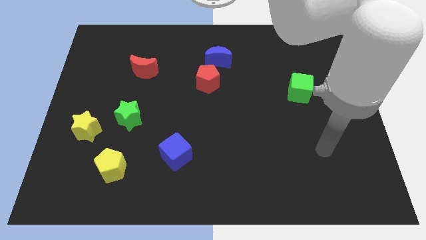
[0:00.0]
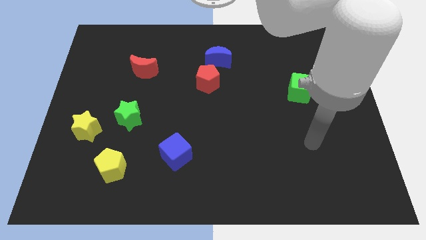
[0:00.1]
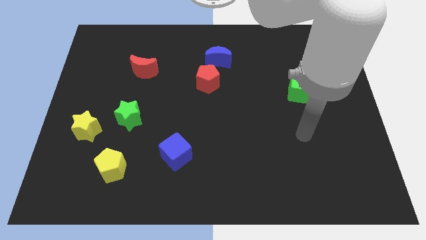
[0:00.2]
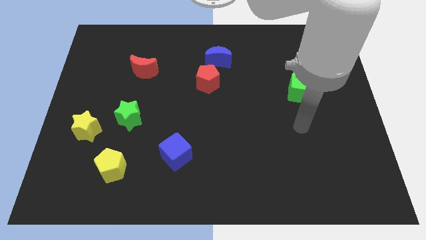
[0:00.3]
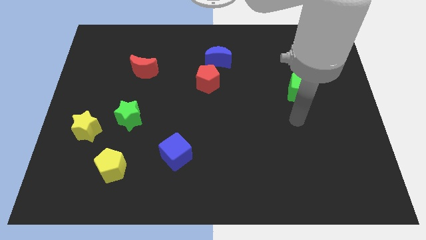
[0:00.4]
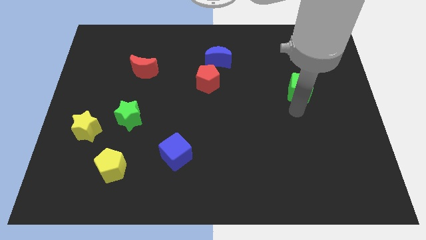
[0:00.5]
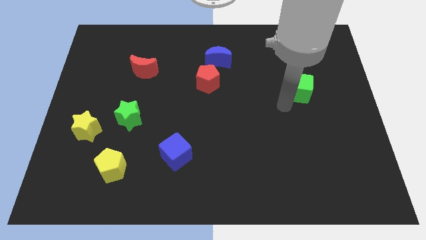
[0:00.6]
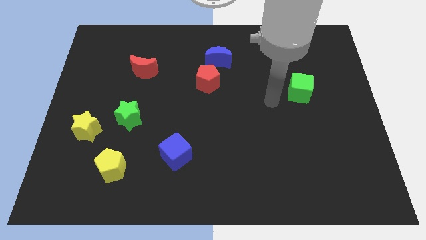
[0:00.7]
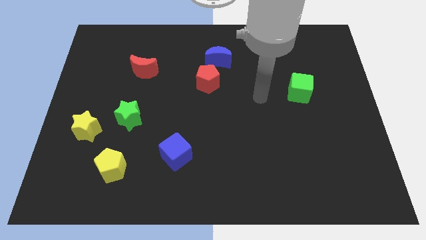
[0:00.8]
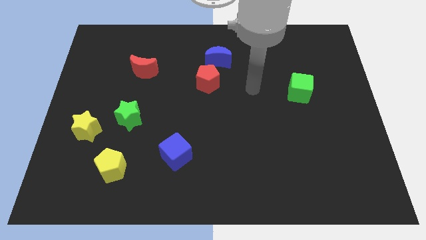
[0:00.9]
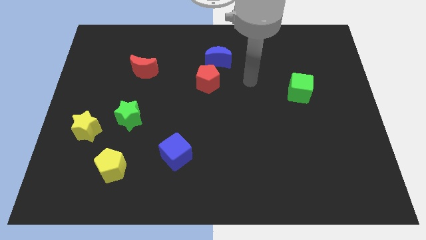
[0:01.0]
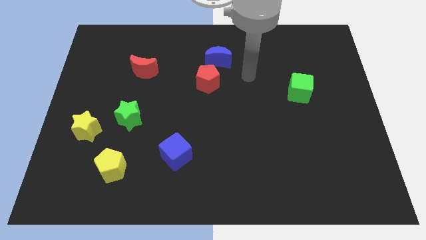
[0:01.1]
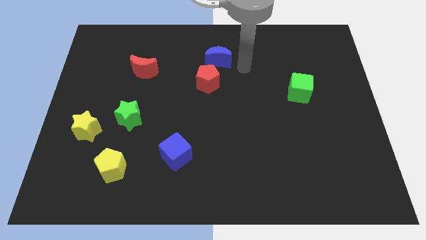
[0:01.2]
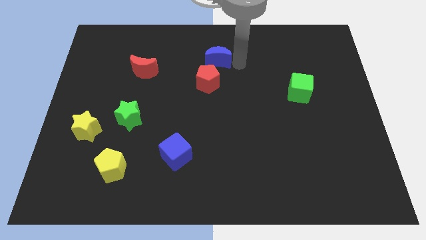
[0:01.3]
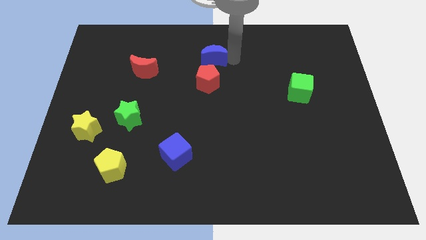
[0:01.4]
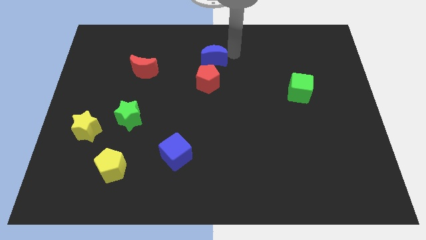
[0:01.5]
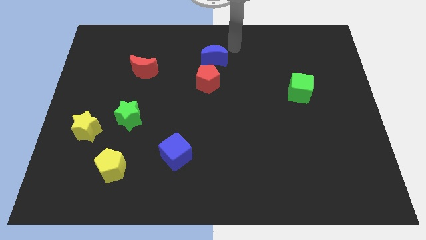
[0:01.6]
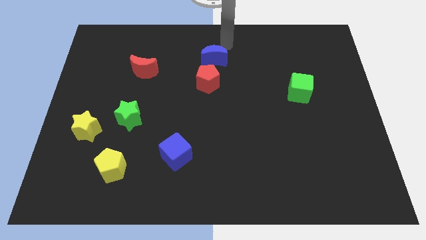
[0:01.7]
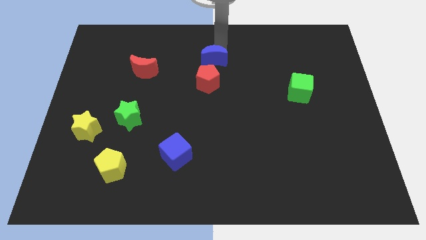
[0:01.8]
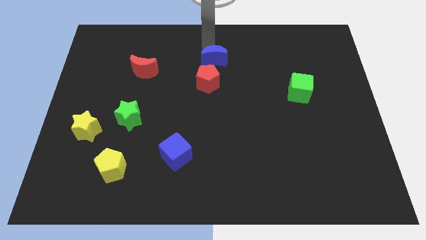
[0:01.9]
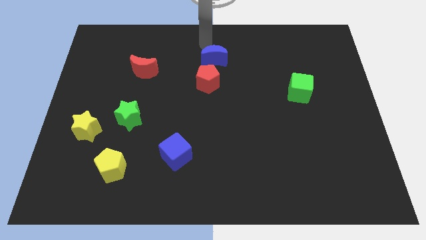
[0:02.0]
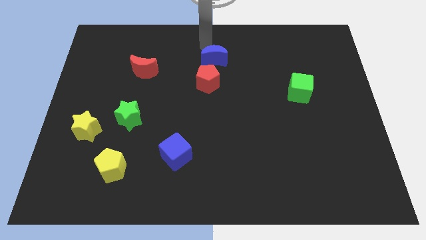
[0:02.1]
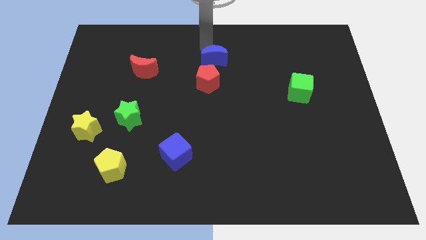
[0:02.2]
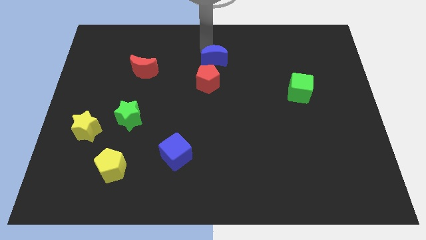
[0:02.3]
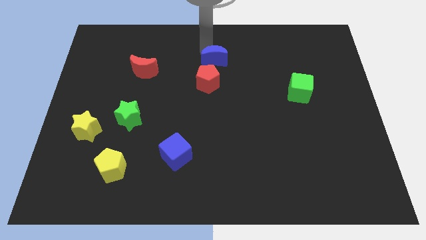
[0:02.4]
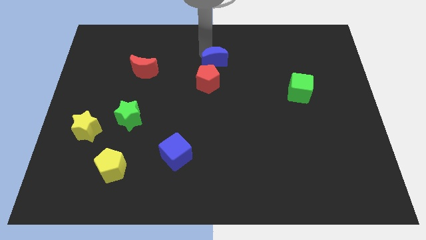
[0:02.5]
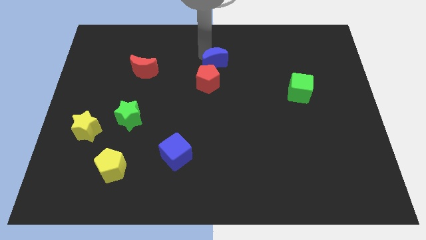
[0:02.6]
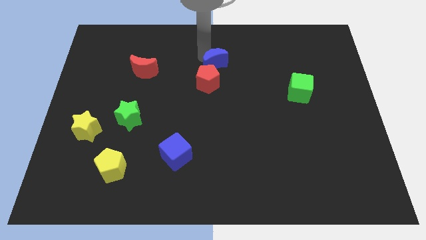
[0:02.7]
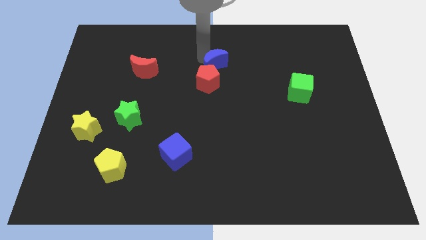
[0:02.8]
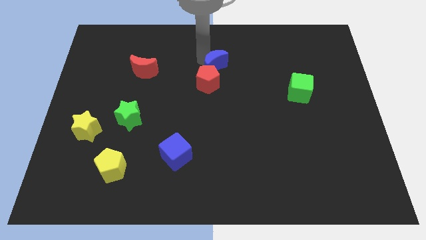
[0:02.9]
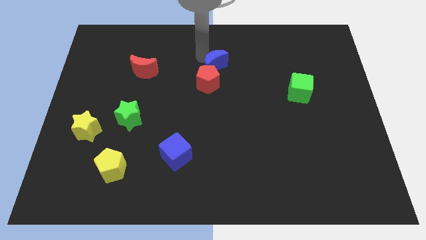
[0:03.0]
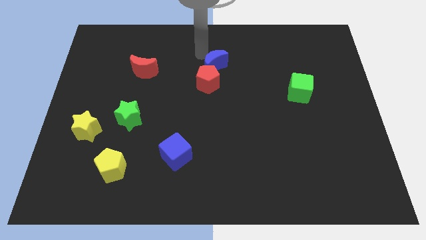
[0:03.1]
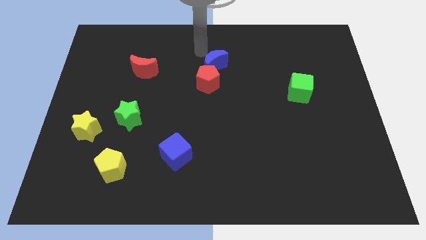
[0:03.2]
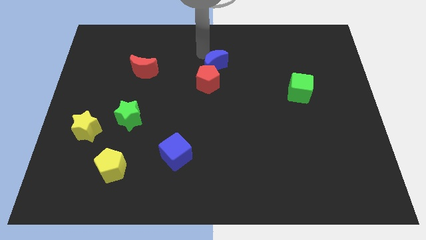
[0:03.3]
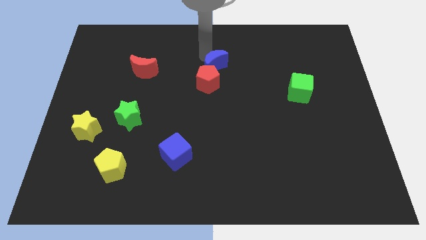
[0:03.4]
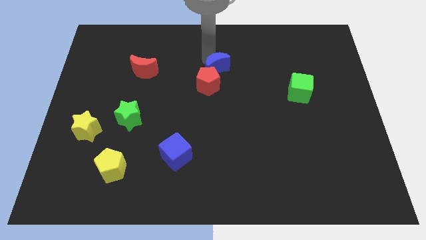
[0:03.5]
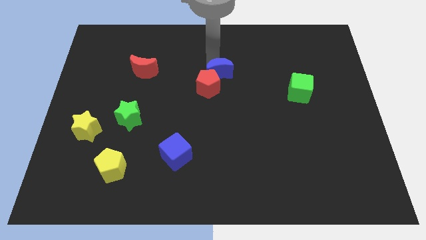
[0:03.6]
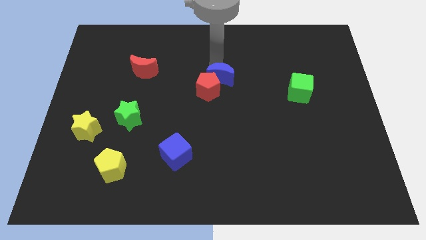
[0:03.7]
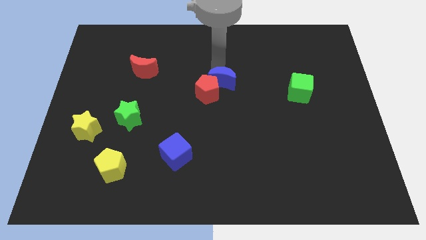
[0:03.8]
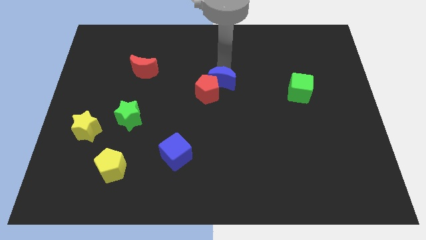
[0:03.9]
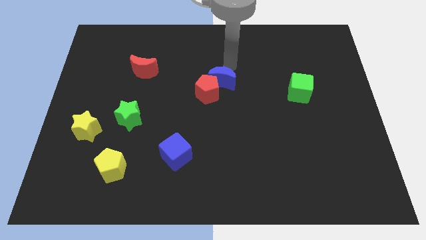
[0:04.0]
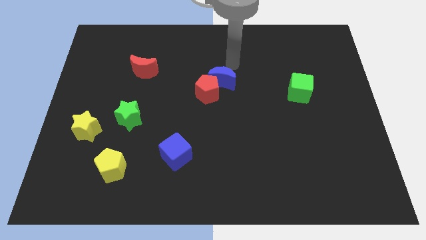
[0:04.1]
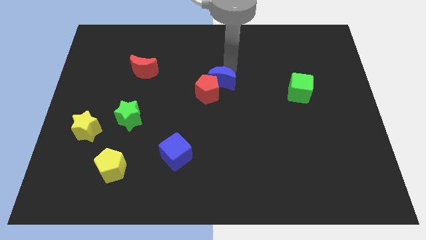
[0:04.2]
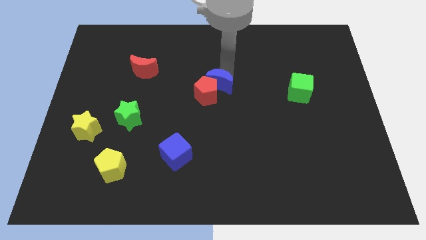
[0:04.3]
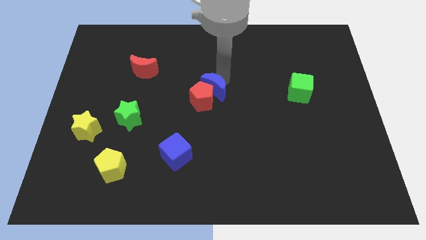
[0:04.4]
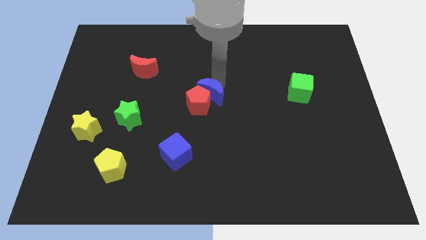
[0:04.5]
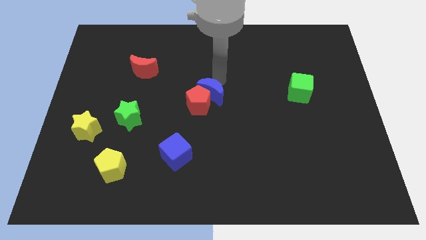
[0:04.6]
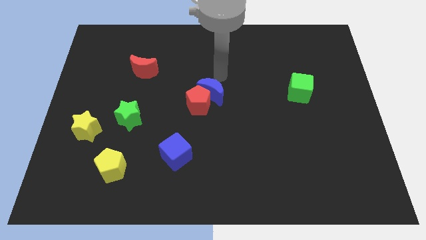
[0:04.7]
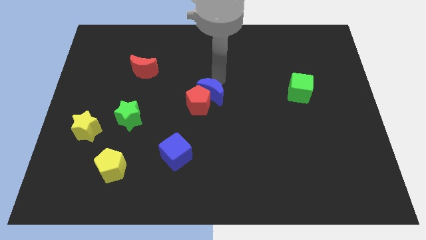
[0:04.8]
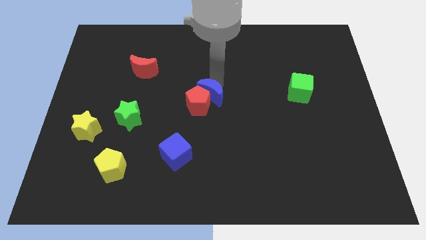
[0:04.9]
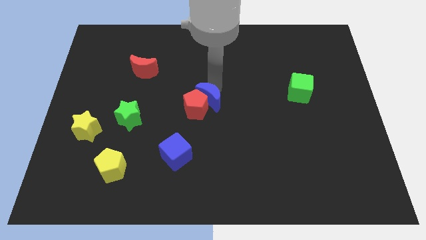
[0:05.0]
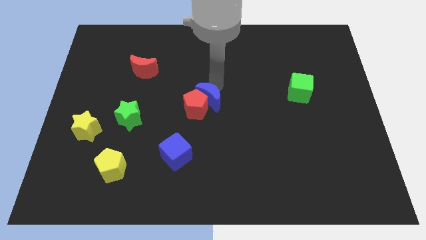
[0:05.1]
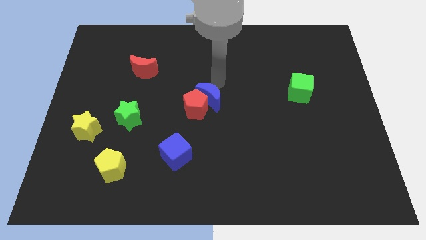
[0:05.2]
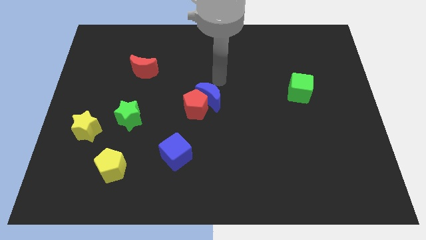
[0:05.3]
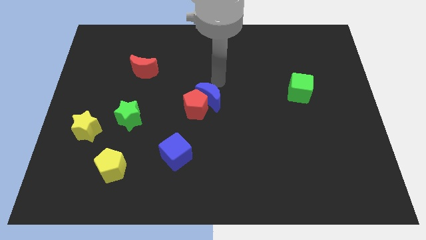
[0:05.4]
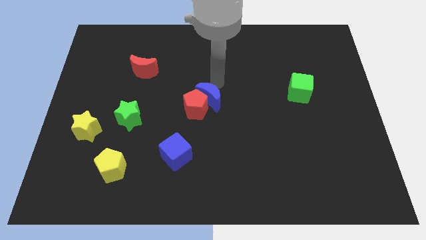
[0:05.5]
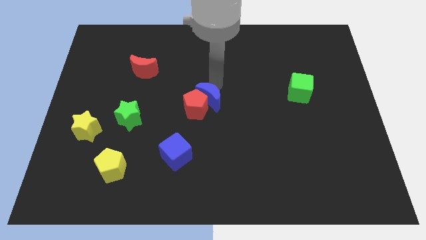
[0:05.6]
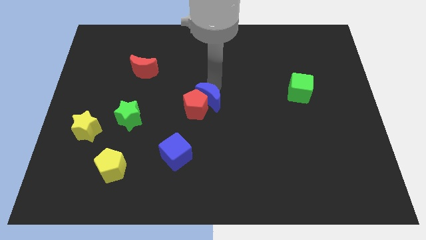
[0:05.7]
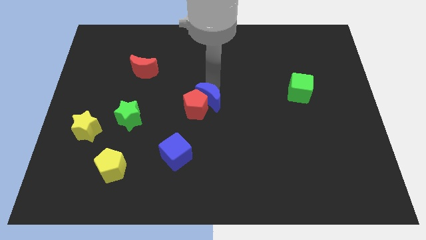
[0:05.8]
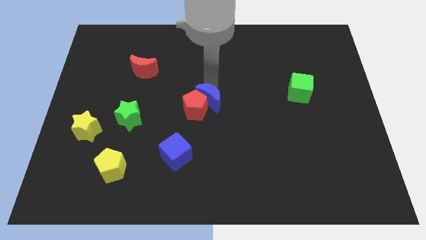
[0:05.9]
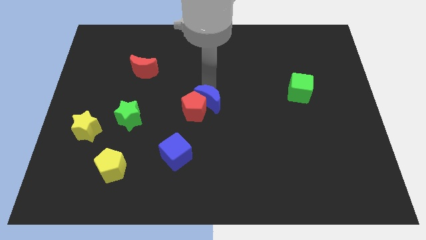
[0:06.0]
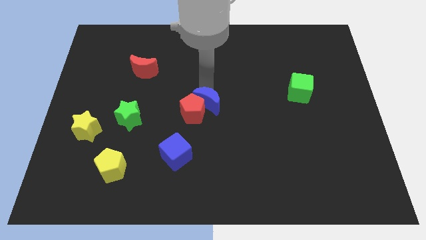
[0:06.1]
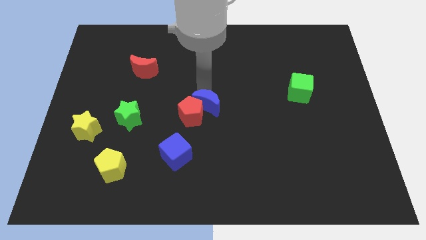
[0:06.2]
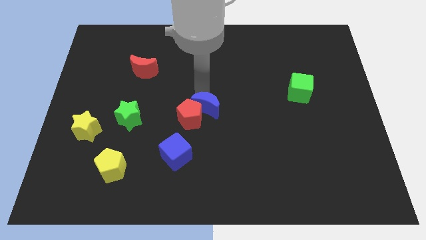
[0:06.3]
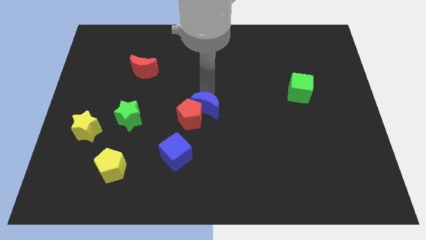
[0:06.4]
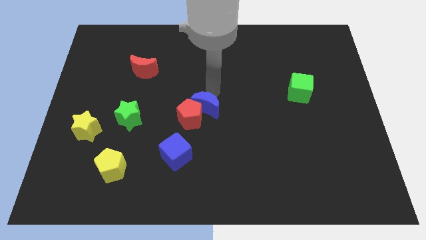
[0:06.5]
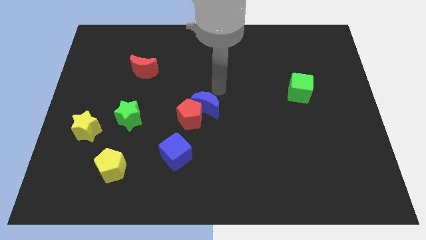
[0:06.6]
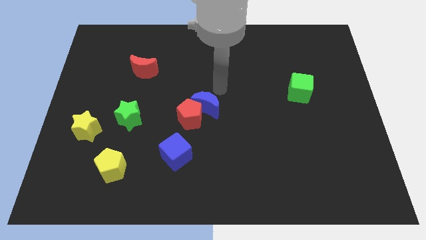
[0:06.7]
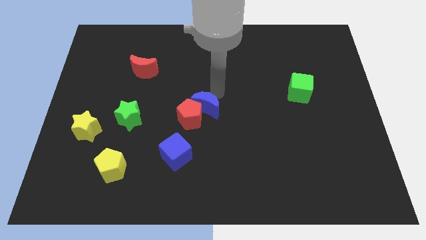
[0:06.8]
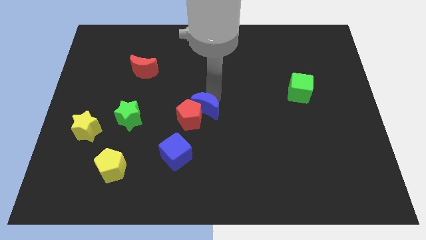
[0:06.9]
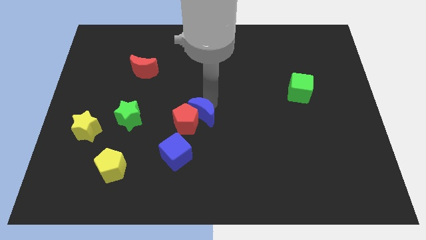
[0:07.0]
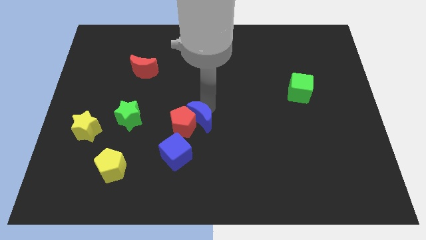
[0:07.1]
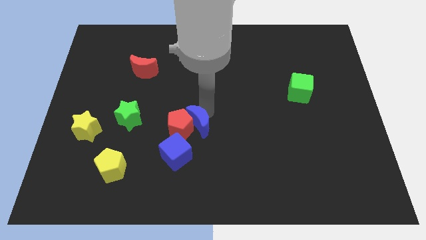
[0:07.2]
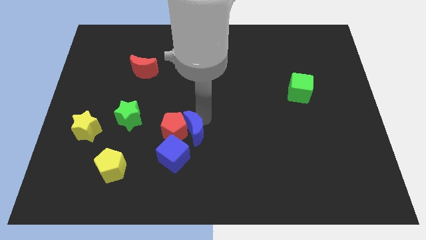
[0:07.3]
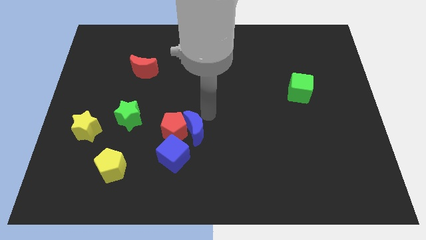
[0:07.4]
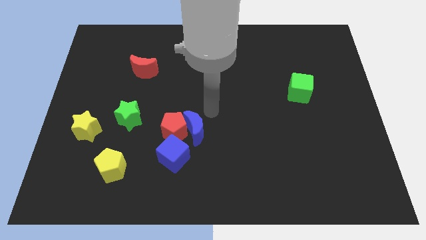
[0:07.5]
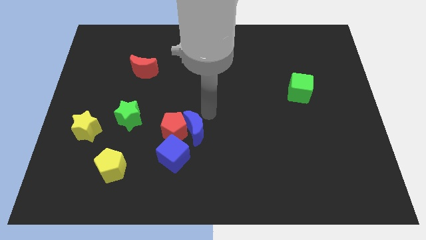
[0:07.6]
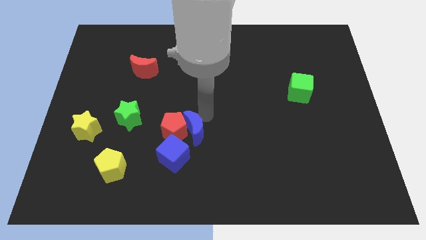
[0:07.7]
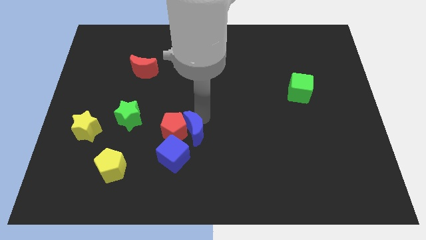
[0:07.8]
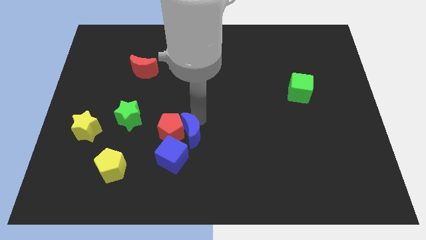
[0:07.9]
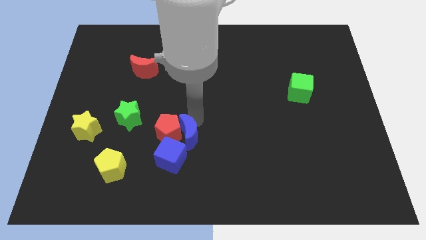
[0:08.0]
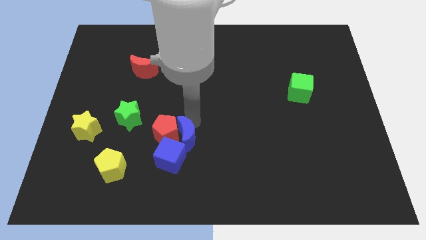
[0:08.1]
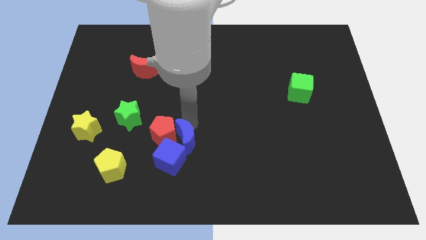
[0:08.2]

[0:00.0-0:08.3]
put the blue moon to the blue cube
